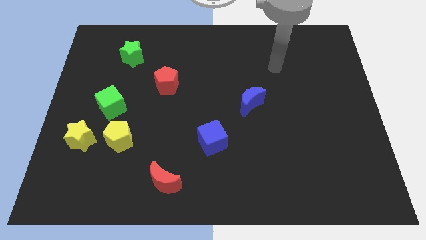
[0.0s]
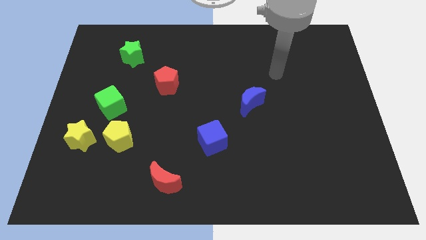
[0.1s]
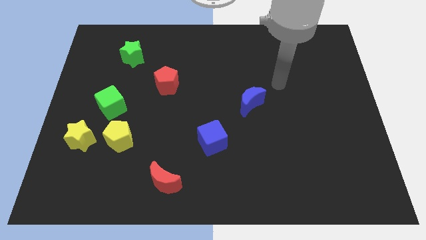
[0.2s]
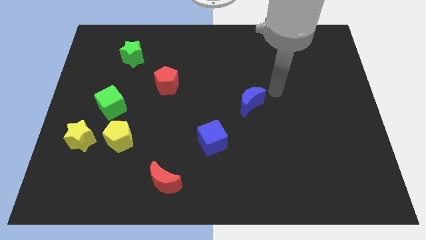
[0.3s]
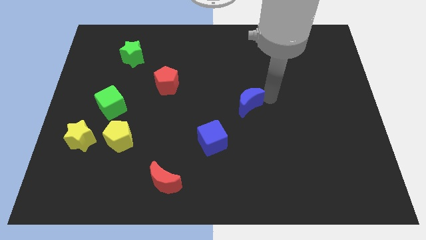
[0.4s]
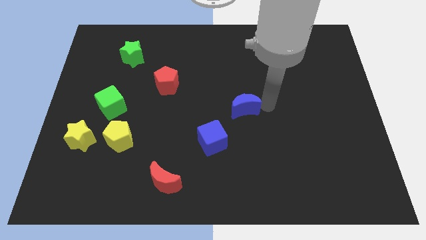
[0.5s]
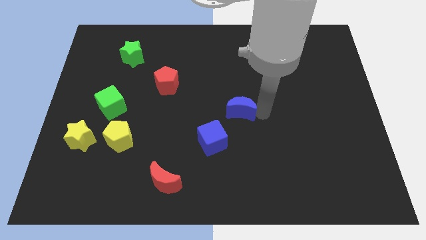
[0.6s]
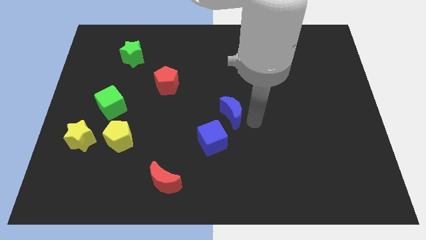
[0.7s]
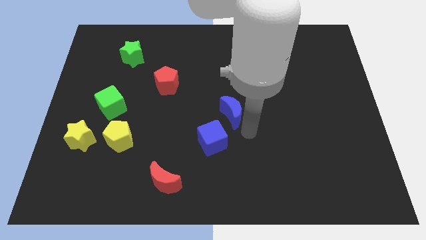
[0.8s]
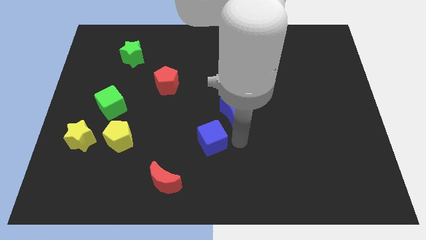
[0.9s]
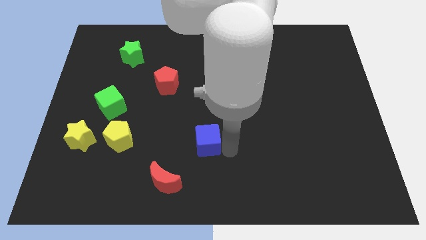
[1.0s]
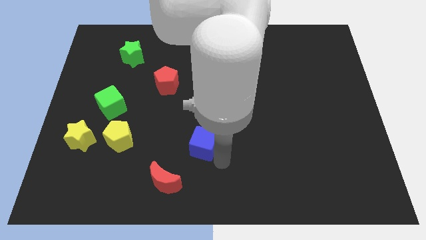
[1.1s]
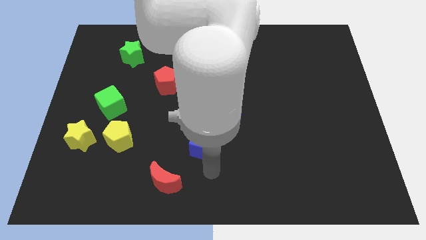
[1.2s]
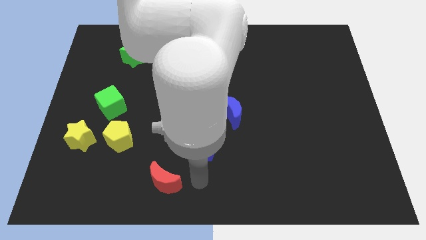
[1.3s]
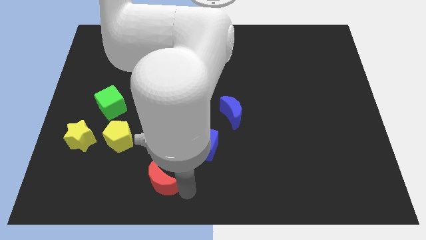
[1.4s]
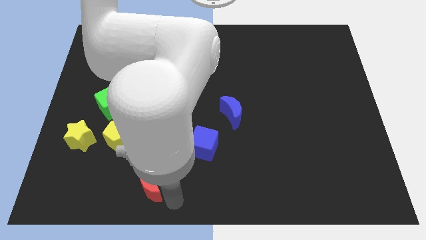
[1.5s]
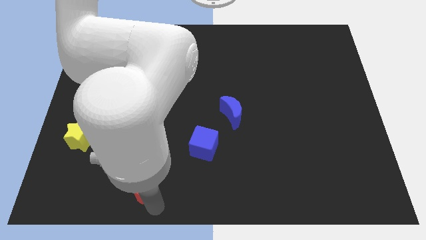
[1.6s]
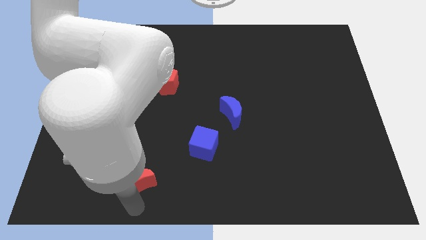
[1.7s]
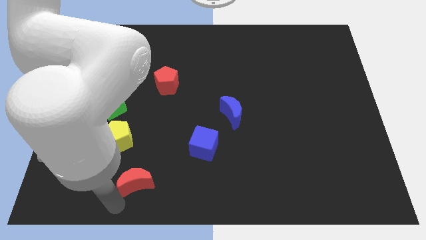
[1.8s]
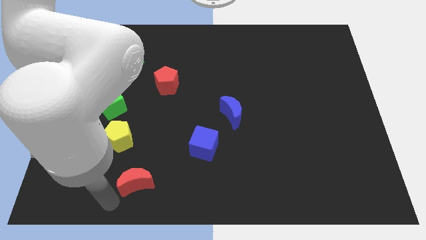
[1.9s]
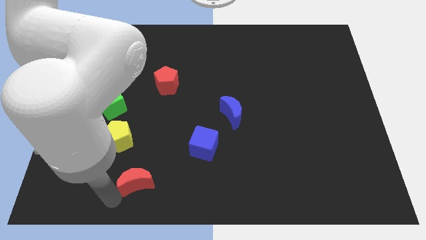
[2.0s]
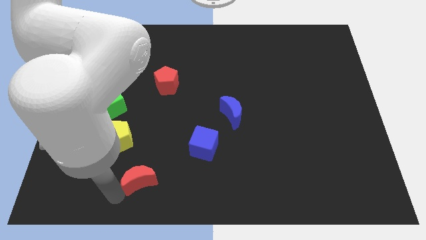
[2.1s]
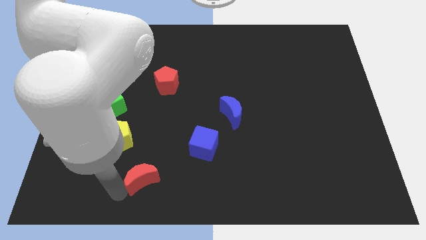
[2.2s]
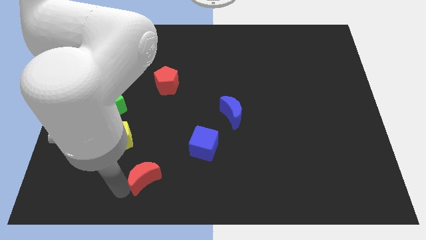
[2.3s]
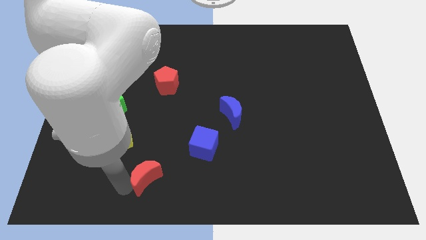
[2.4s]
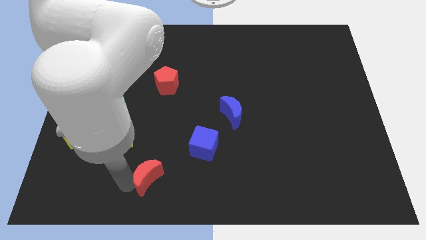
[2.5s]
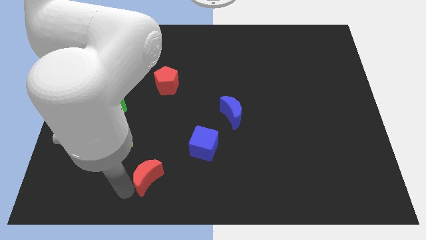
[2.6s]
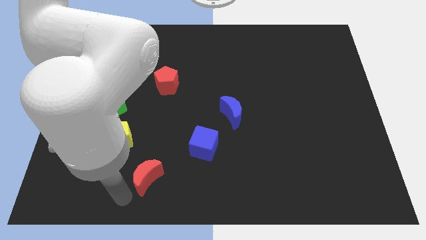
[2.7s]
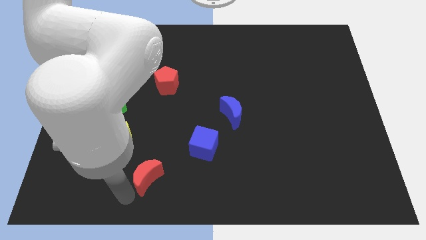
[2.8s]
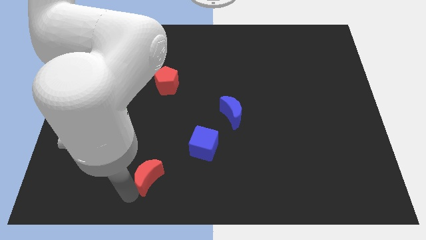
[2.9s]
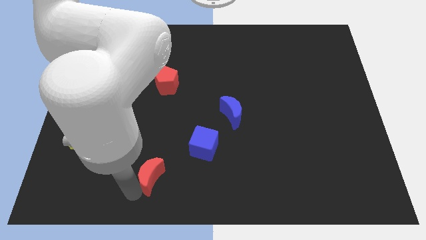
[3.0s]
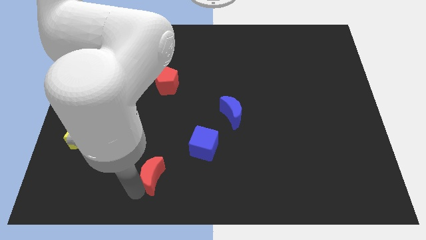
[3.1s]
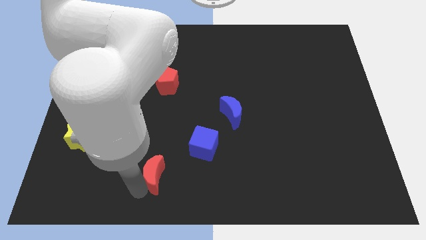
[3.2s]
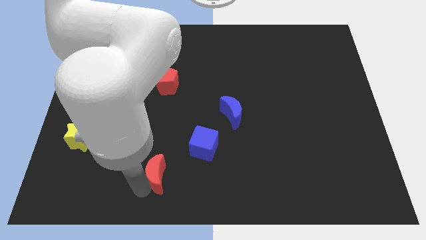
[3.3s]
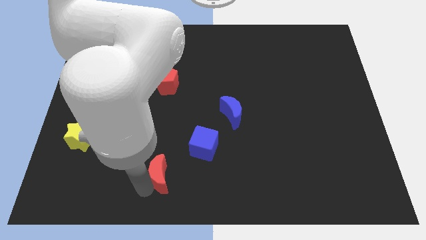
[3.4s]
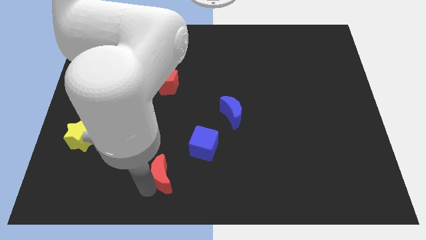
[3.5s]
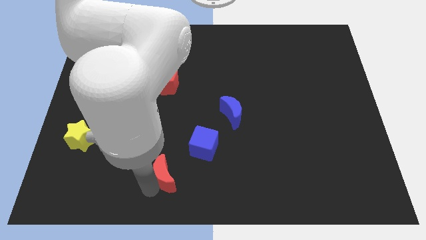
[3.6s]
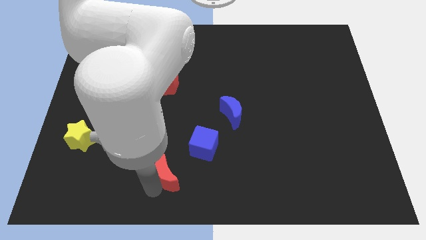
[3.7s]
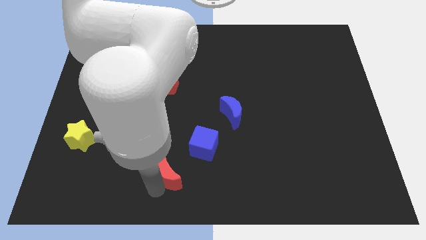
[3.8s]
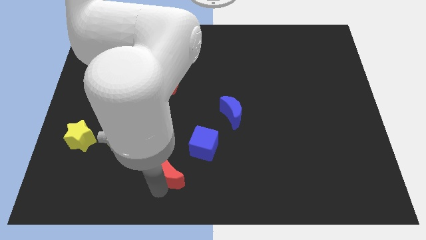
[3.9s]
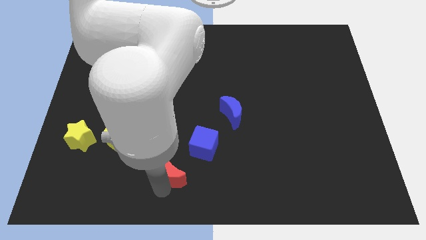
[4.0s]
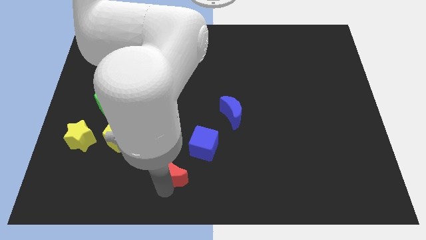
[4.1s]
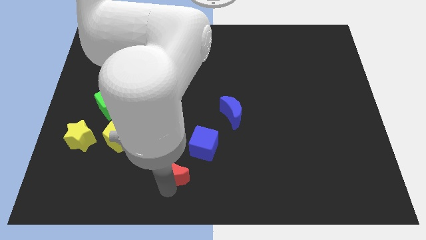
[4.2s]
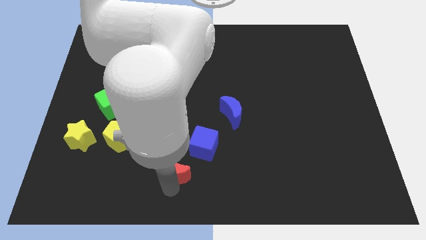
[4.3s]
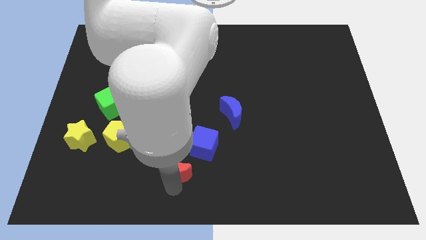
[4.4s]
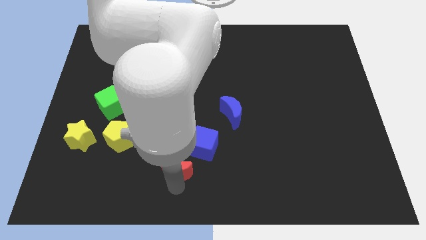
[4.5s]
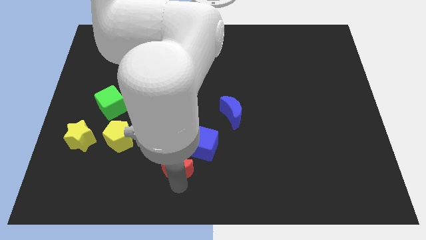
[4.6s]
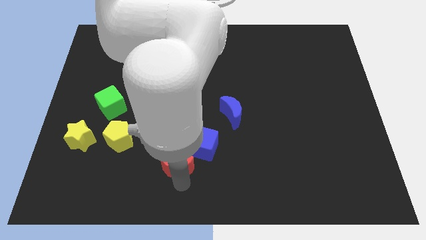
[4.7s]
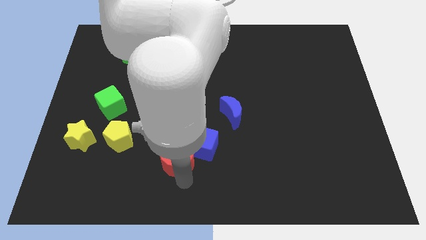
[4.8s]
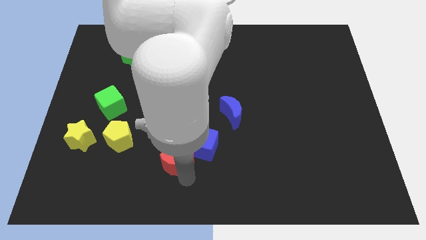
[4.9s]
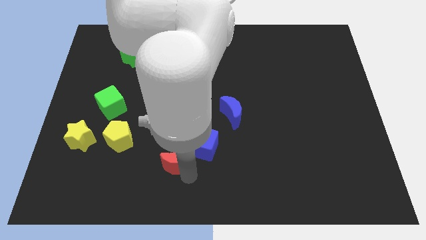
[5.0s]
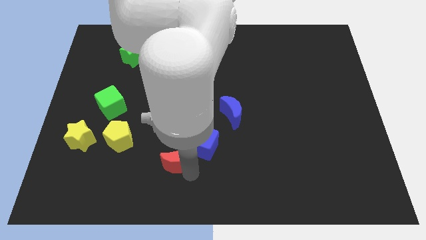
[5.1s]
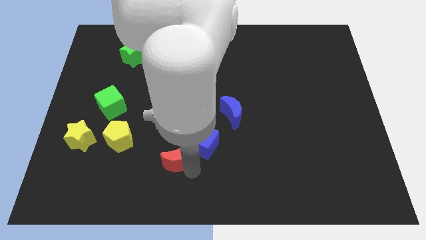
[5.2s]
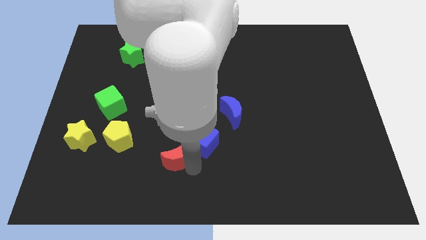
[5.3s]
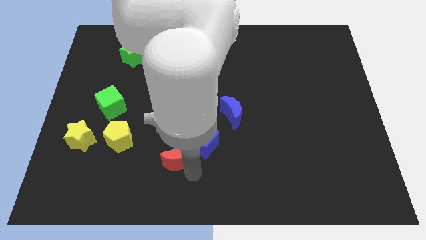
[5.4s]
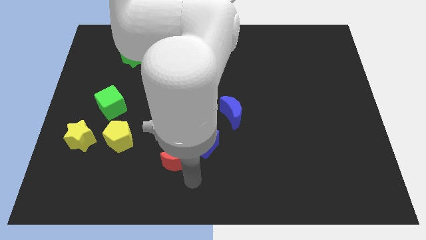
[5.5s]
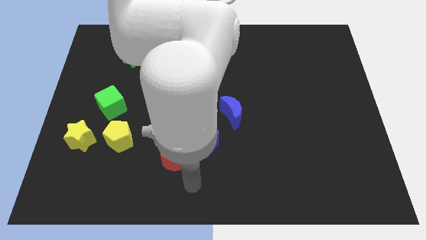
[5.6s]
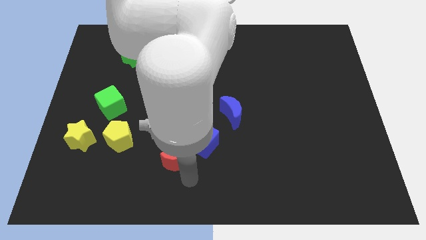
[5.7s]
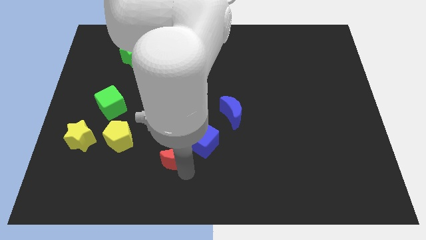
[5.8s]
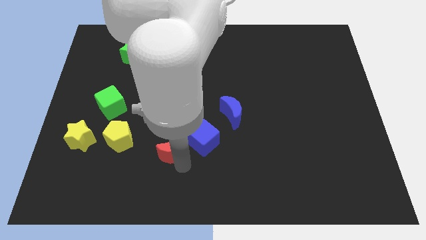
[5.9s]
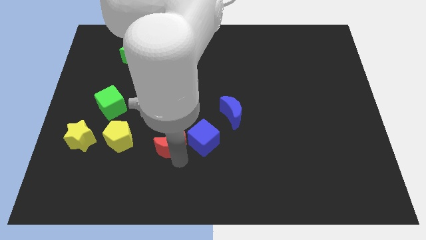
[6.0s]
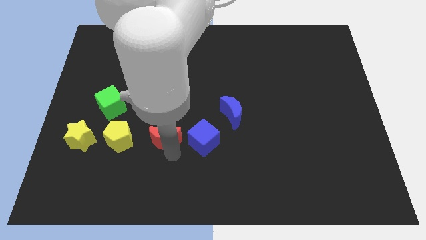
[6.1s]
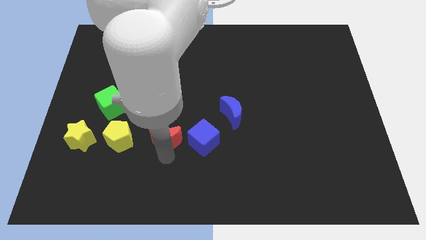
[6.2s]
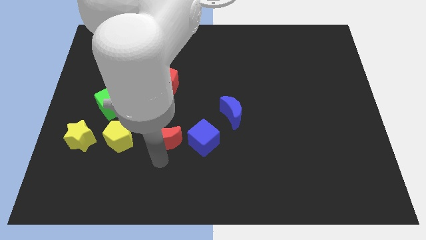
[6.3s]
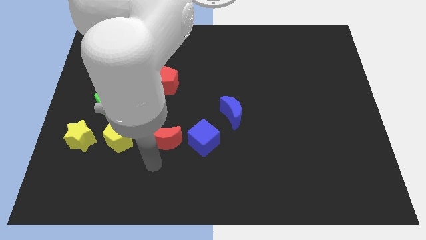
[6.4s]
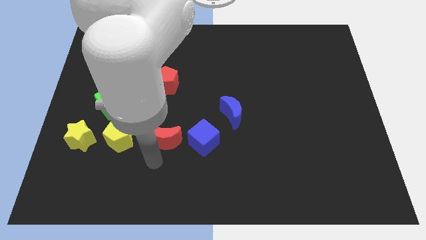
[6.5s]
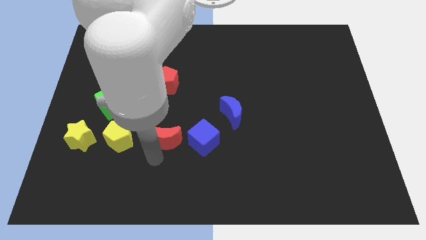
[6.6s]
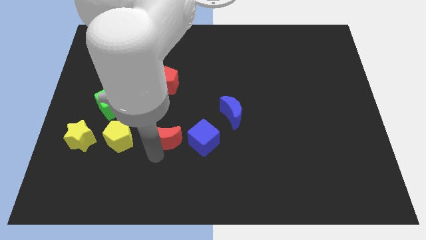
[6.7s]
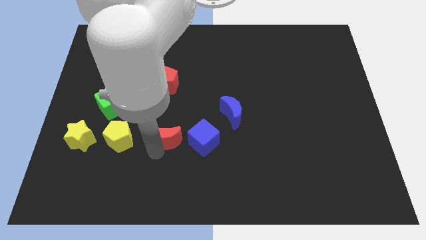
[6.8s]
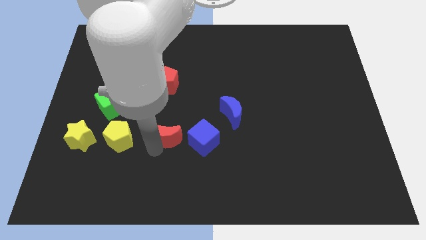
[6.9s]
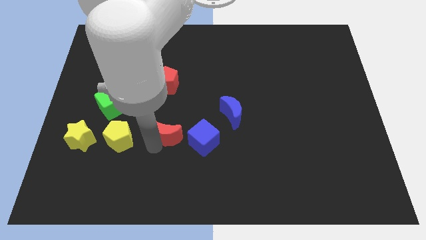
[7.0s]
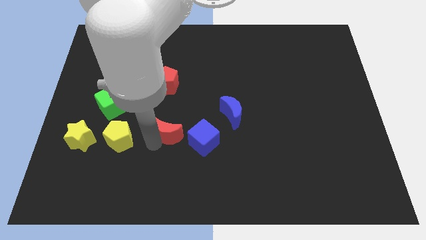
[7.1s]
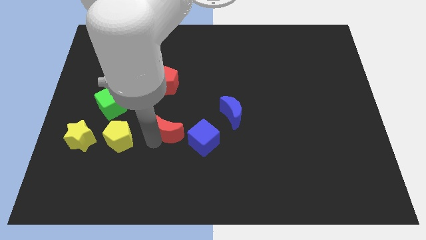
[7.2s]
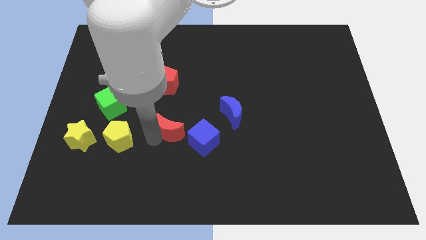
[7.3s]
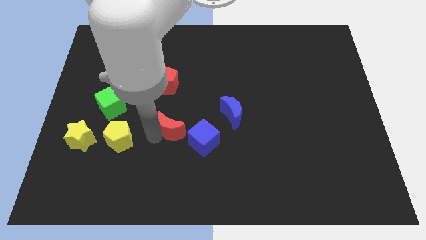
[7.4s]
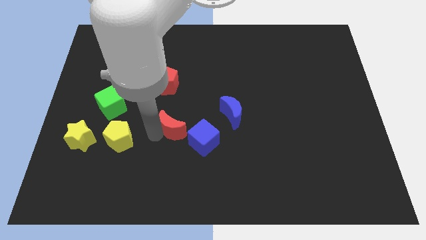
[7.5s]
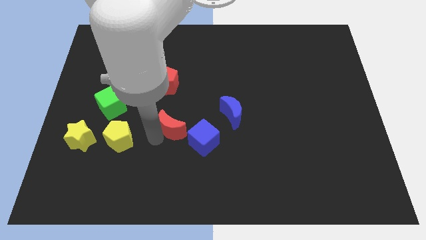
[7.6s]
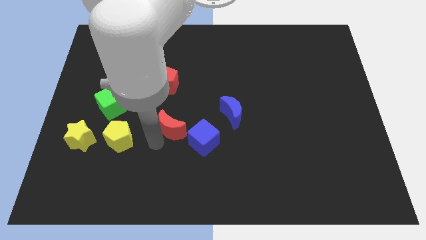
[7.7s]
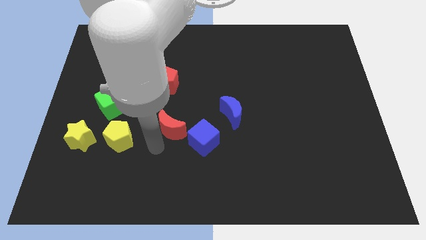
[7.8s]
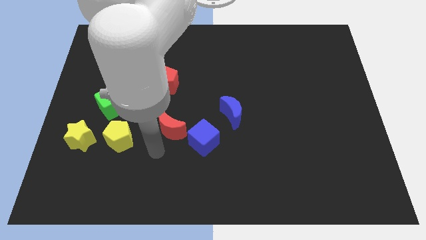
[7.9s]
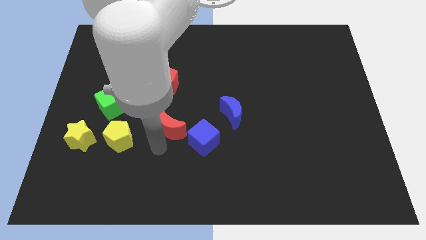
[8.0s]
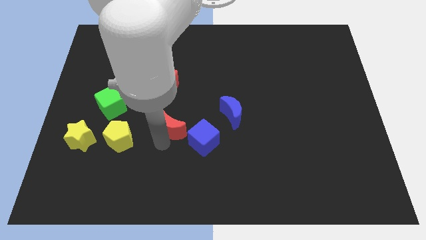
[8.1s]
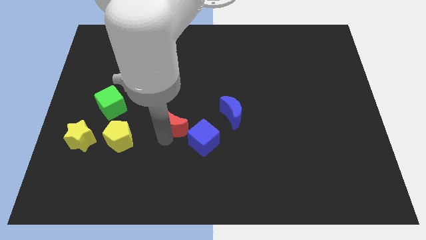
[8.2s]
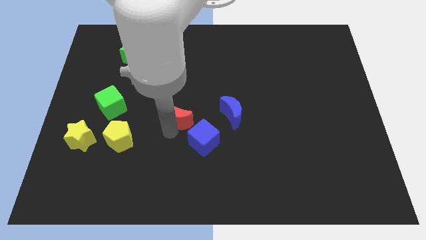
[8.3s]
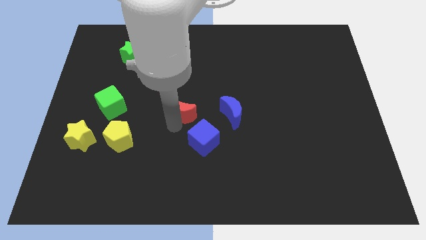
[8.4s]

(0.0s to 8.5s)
push the red moon diagonally down and to the right of the red pentagon
